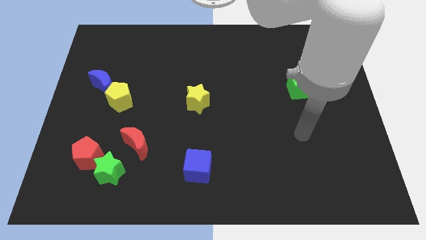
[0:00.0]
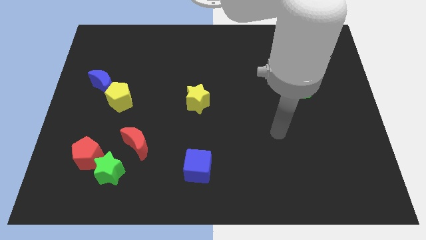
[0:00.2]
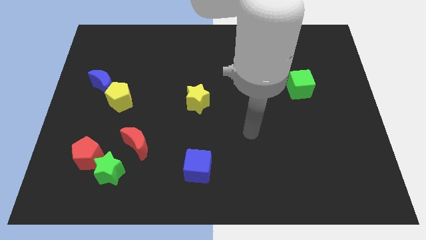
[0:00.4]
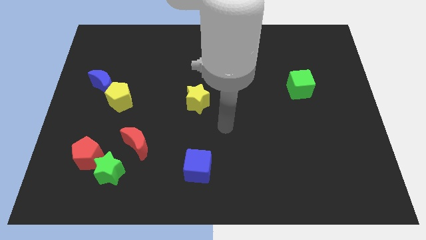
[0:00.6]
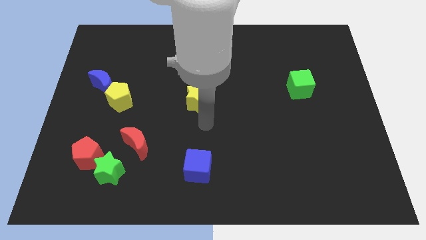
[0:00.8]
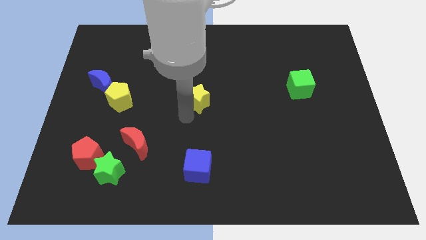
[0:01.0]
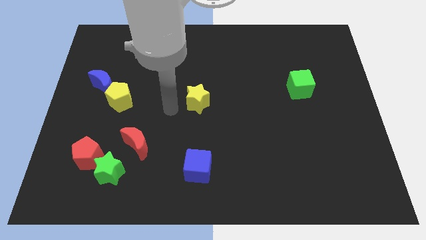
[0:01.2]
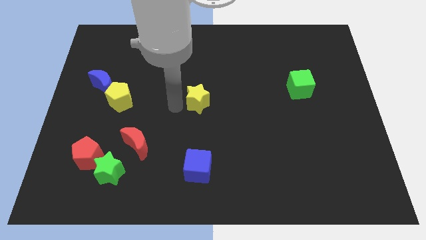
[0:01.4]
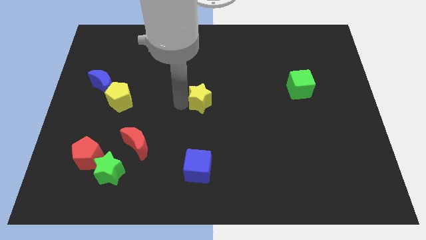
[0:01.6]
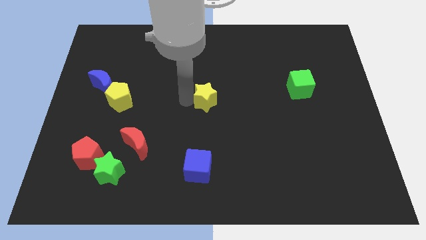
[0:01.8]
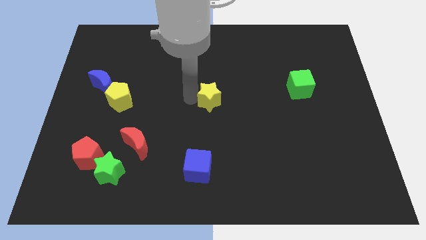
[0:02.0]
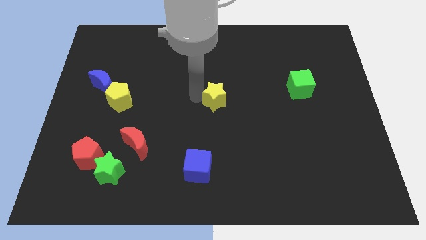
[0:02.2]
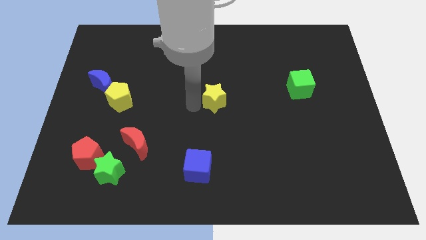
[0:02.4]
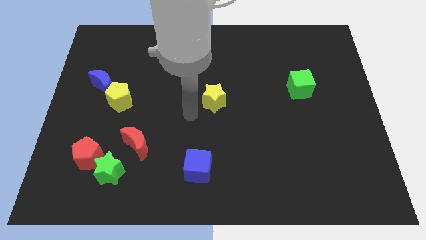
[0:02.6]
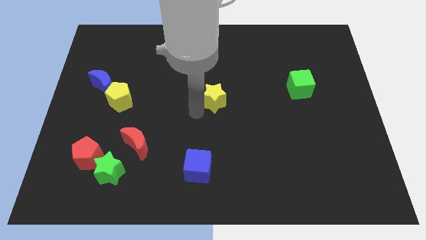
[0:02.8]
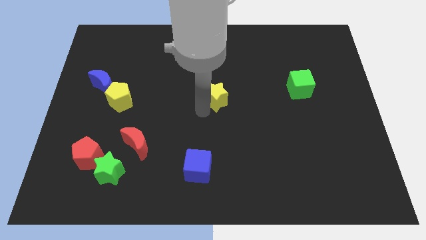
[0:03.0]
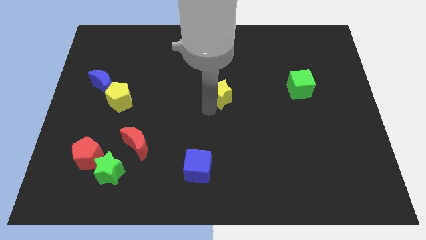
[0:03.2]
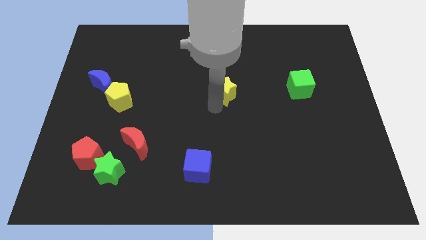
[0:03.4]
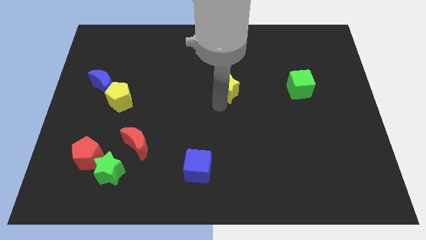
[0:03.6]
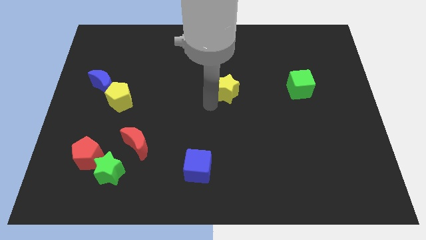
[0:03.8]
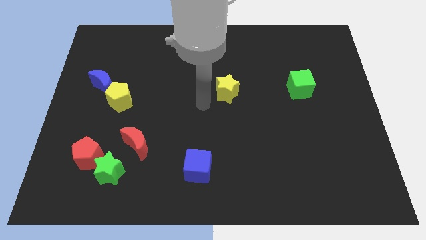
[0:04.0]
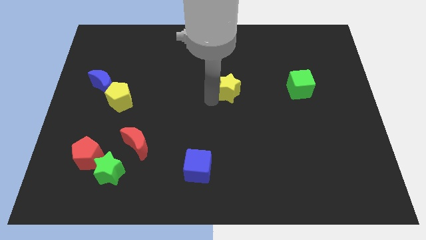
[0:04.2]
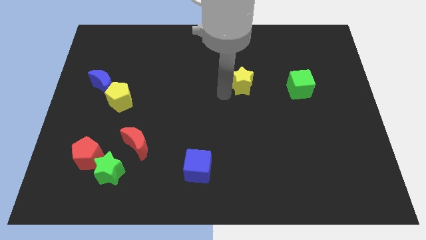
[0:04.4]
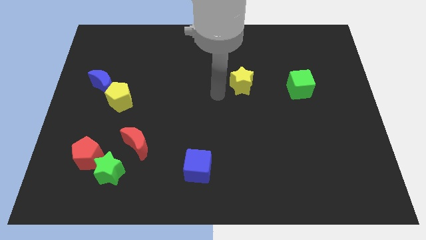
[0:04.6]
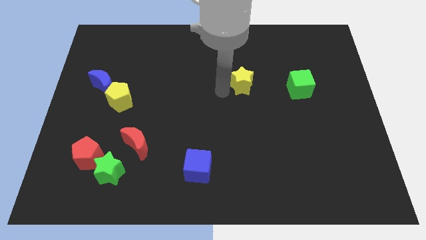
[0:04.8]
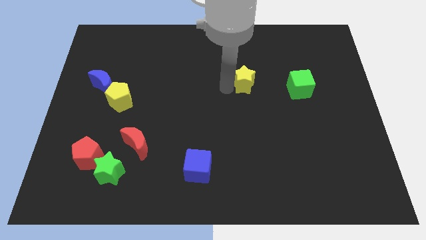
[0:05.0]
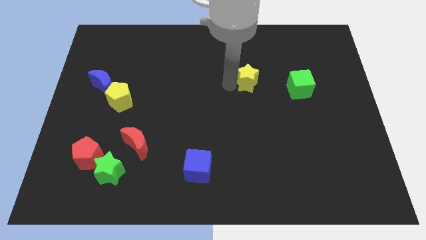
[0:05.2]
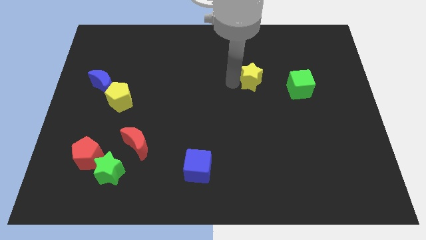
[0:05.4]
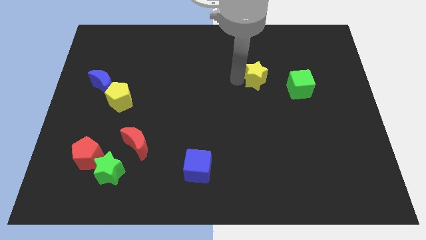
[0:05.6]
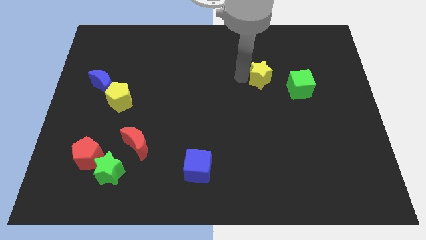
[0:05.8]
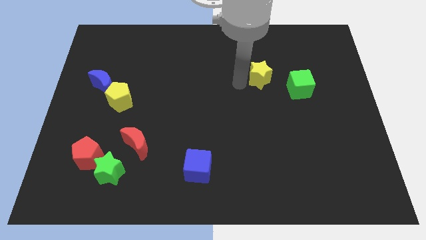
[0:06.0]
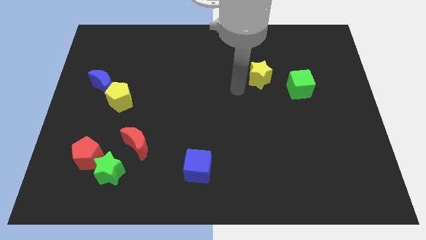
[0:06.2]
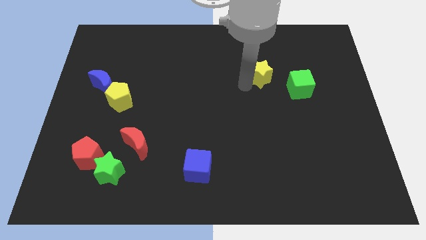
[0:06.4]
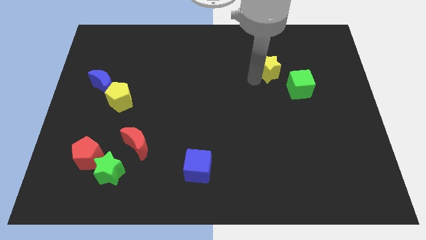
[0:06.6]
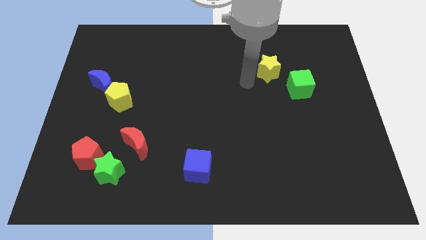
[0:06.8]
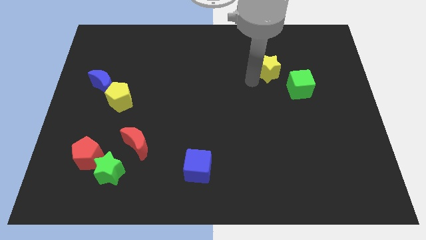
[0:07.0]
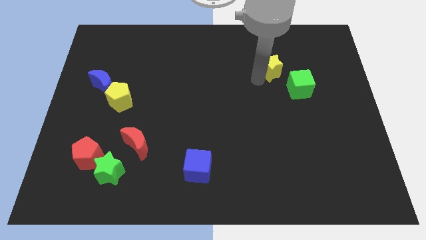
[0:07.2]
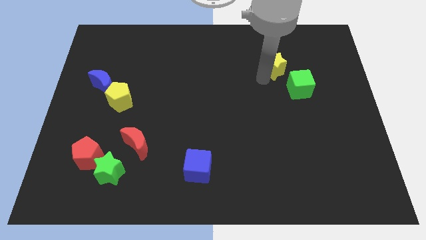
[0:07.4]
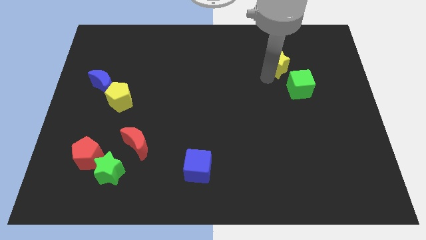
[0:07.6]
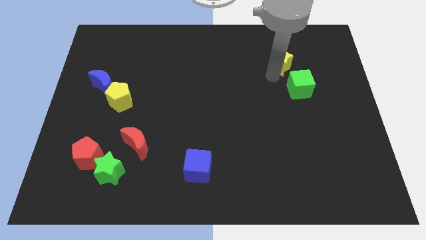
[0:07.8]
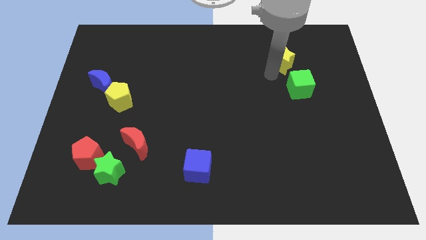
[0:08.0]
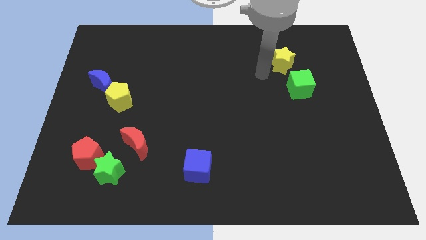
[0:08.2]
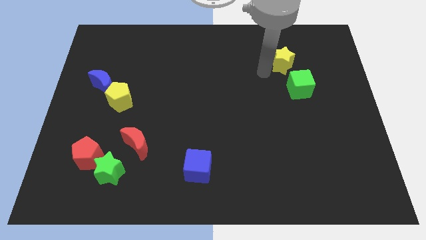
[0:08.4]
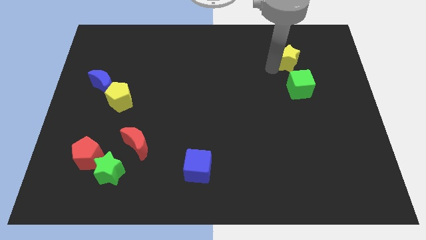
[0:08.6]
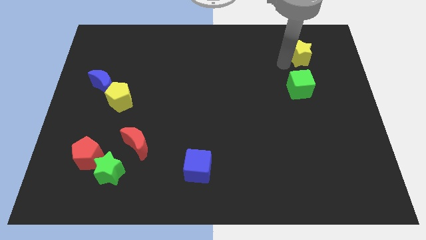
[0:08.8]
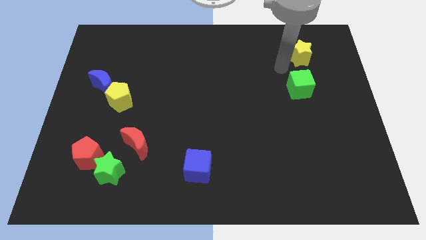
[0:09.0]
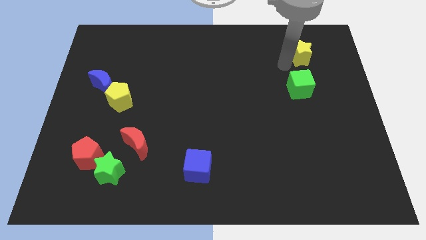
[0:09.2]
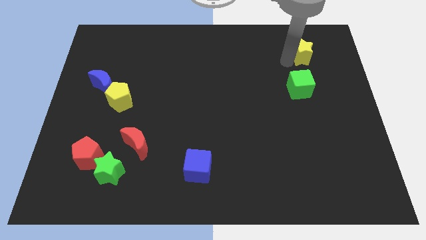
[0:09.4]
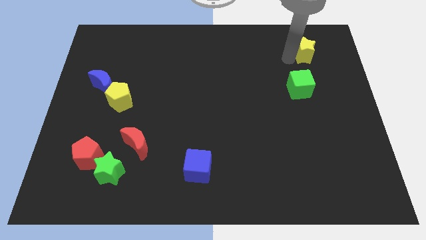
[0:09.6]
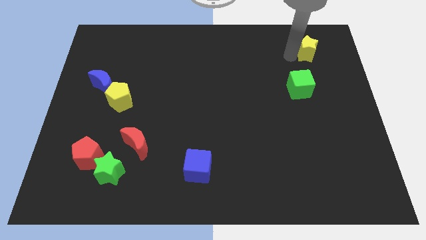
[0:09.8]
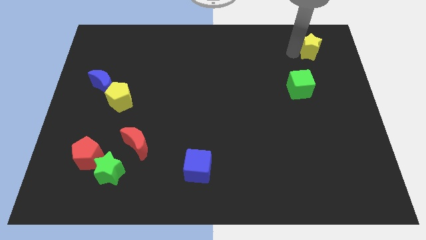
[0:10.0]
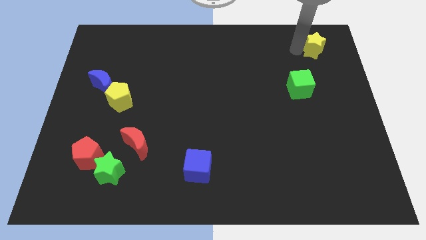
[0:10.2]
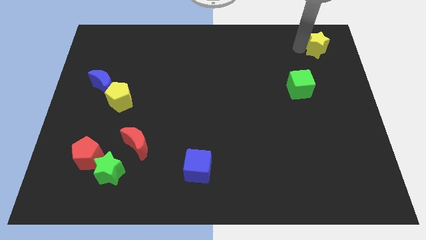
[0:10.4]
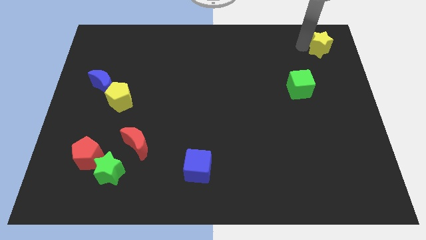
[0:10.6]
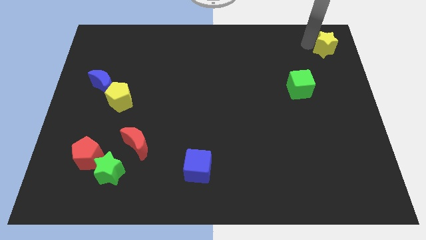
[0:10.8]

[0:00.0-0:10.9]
push the yellow star to the top right

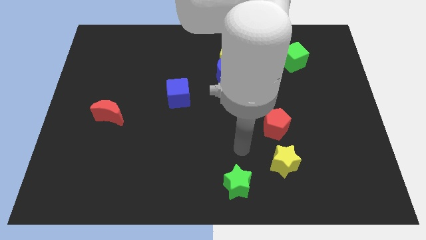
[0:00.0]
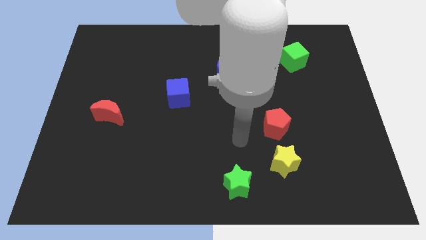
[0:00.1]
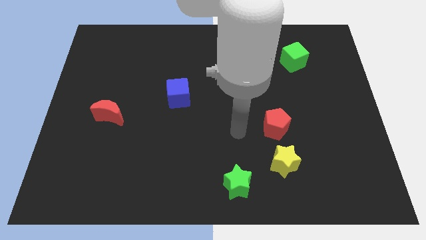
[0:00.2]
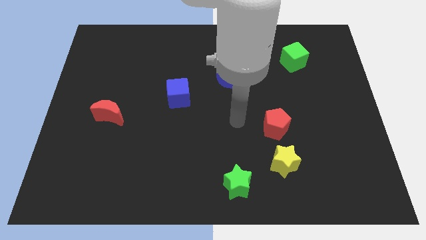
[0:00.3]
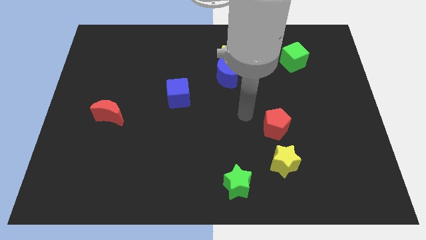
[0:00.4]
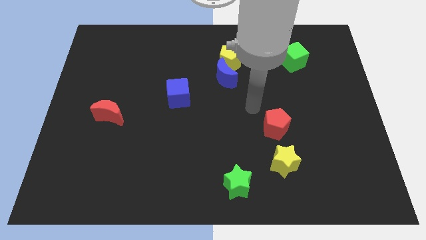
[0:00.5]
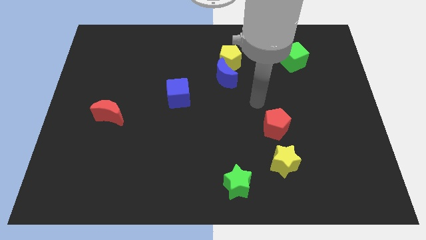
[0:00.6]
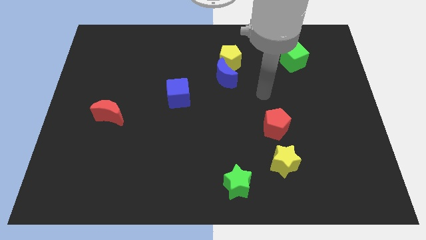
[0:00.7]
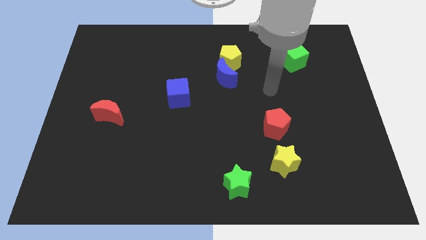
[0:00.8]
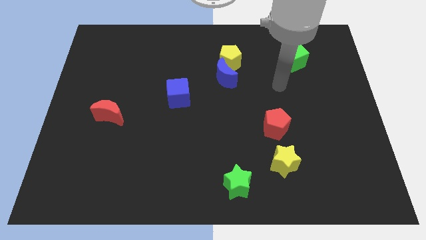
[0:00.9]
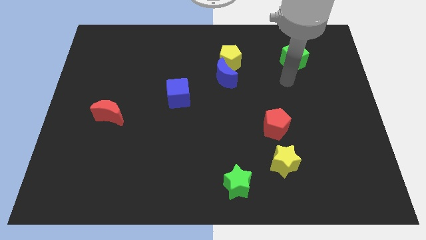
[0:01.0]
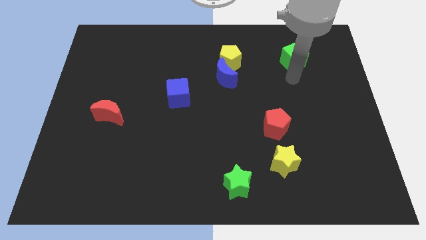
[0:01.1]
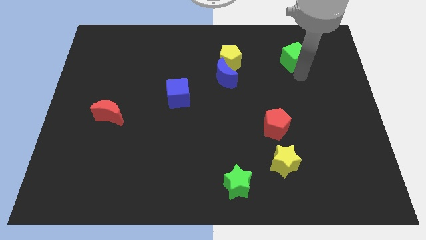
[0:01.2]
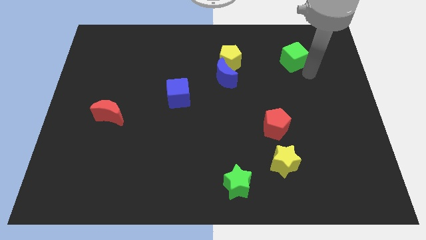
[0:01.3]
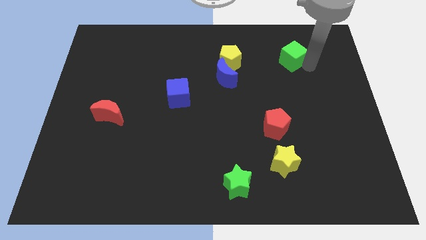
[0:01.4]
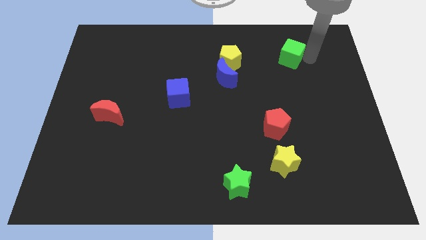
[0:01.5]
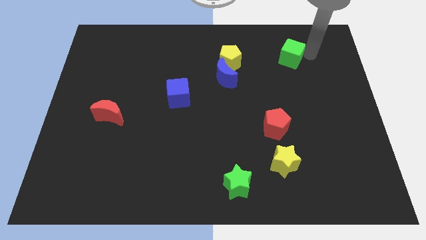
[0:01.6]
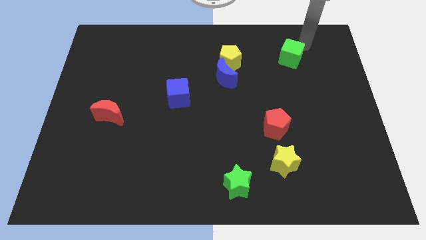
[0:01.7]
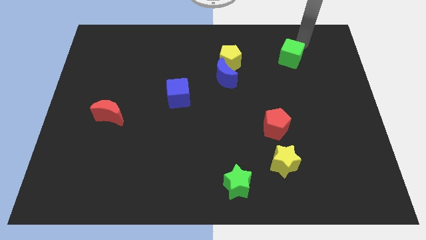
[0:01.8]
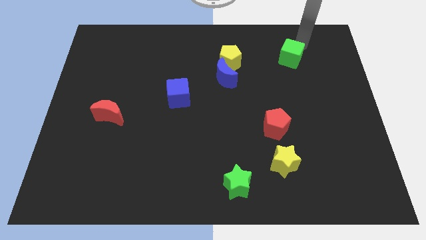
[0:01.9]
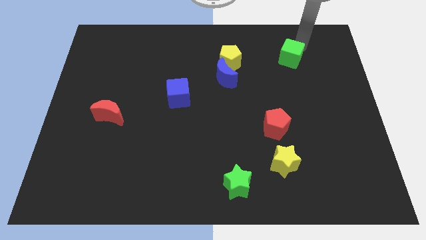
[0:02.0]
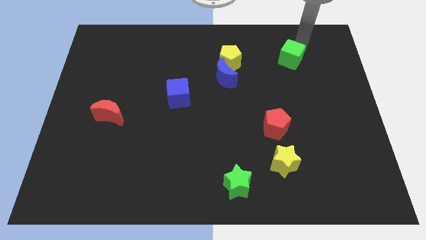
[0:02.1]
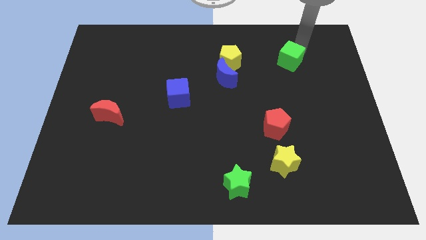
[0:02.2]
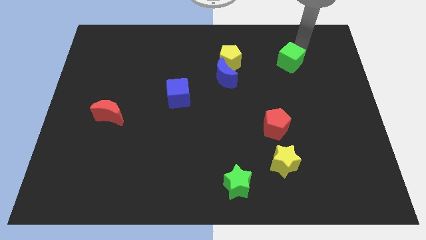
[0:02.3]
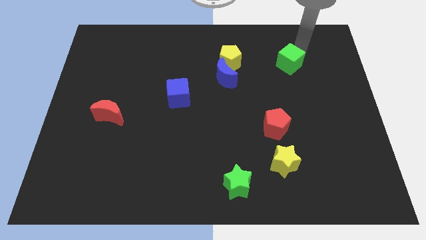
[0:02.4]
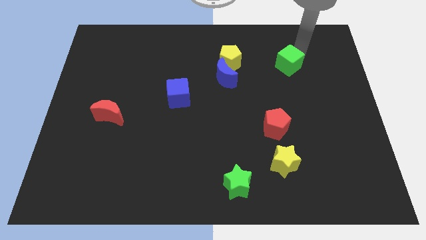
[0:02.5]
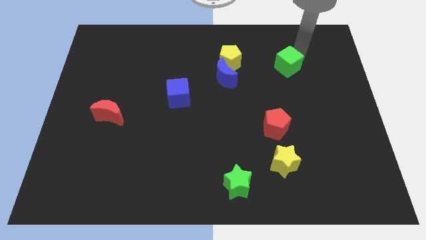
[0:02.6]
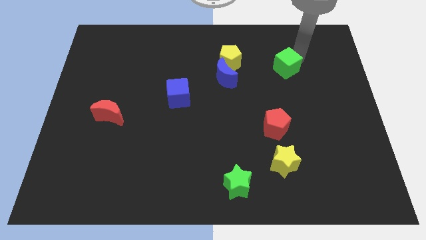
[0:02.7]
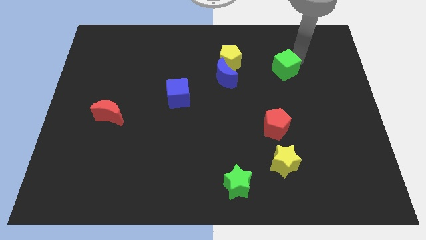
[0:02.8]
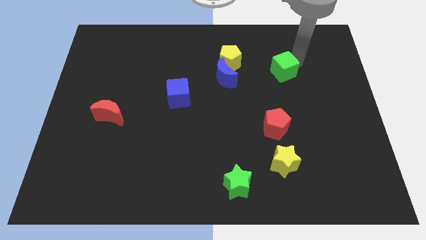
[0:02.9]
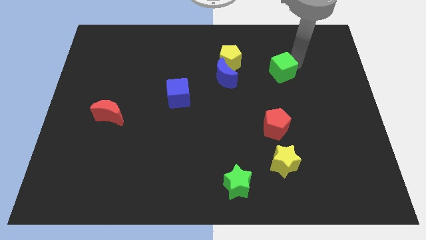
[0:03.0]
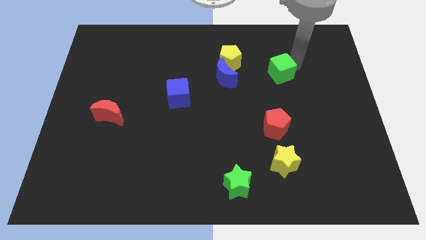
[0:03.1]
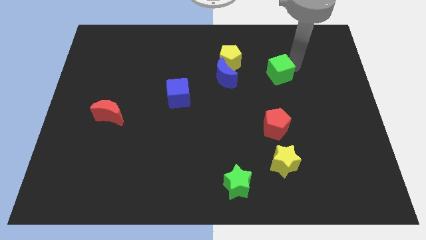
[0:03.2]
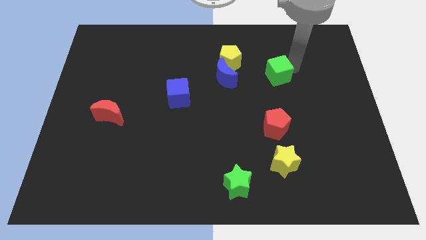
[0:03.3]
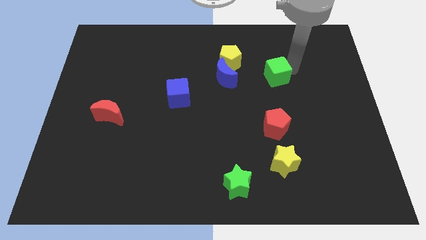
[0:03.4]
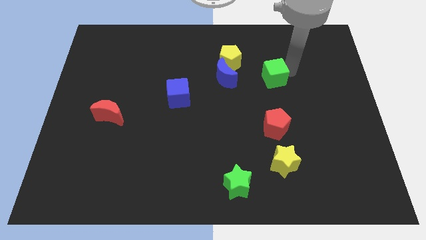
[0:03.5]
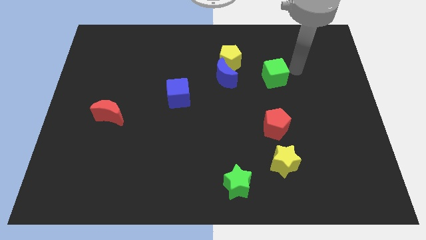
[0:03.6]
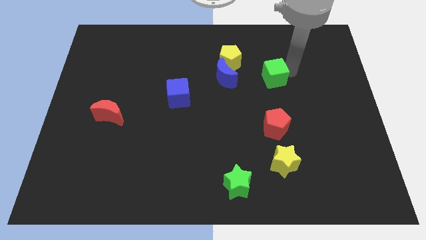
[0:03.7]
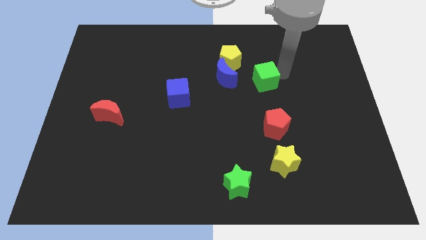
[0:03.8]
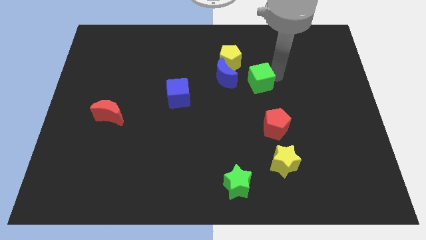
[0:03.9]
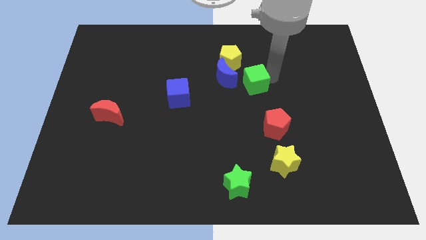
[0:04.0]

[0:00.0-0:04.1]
push the green cube to the center of the board
